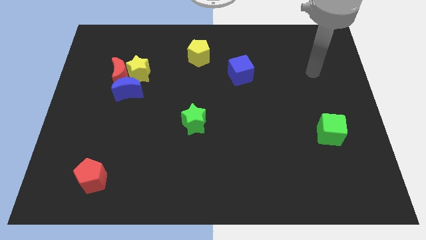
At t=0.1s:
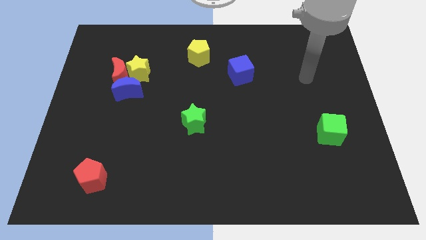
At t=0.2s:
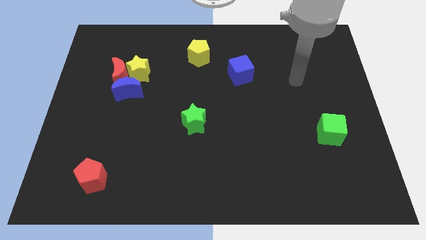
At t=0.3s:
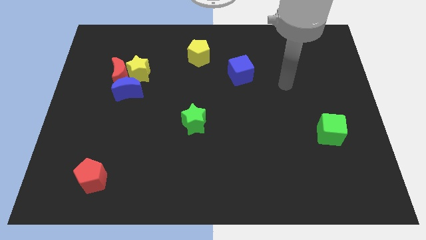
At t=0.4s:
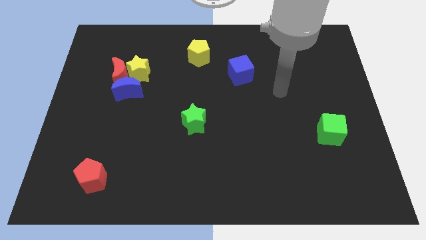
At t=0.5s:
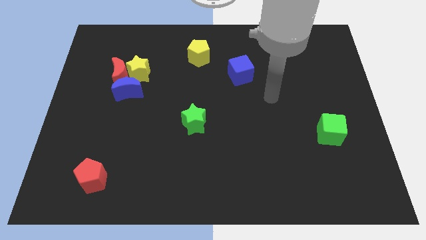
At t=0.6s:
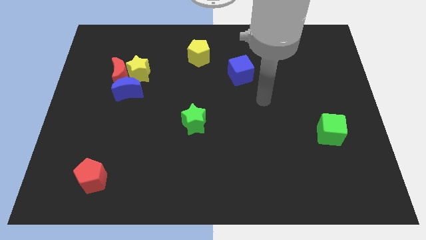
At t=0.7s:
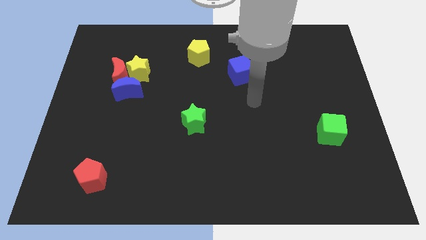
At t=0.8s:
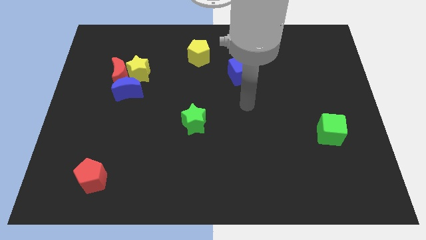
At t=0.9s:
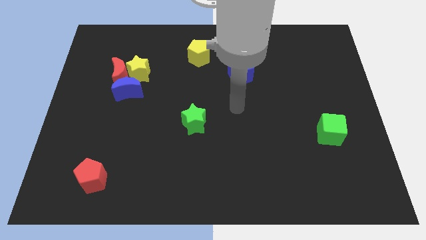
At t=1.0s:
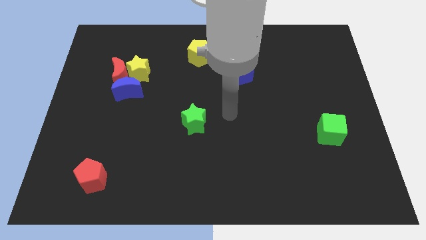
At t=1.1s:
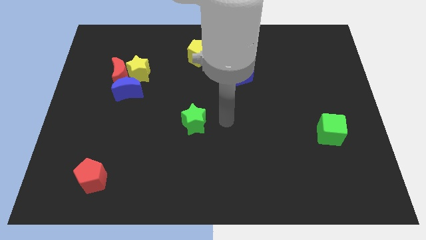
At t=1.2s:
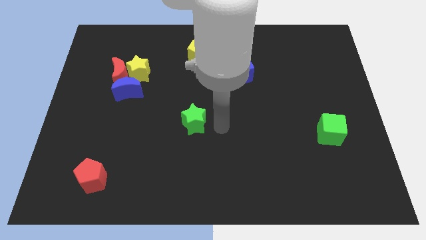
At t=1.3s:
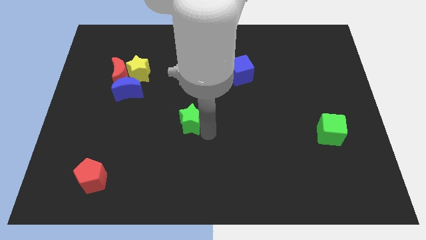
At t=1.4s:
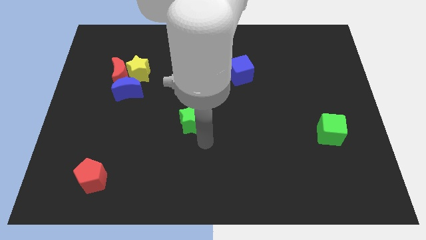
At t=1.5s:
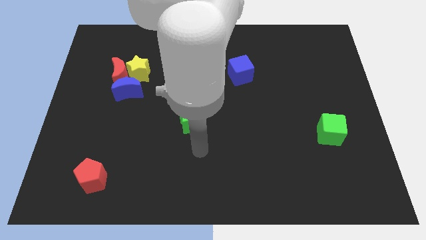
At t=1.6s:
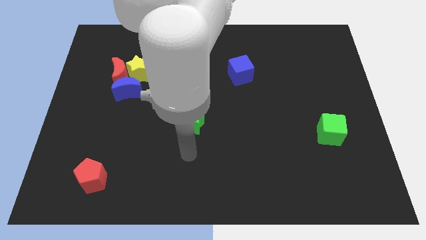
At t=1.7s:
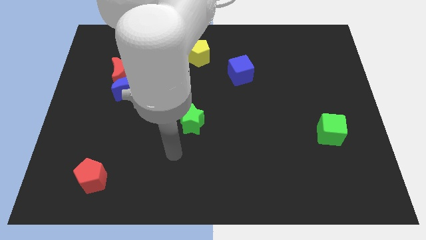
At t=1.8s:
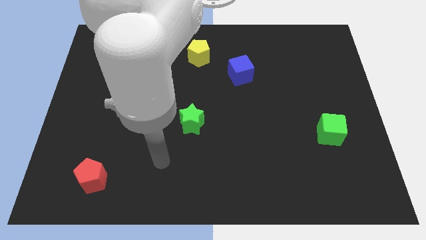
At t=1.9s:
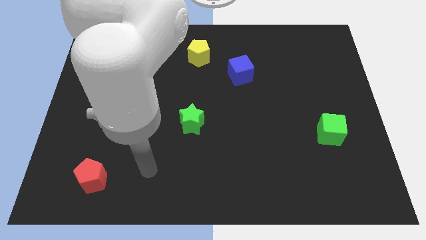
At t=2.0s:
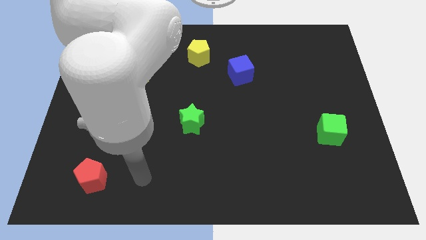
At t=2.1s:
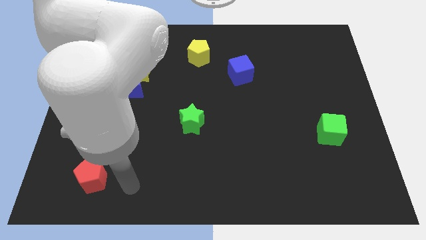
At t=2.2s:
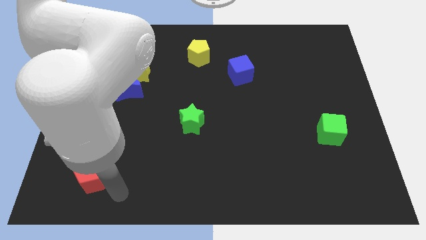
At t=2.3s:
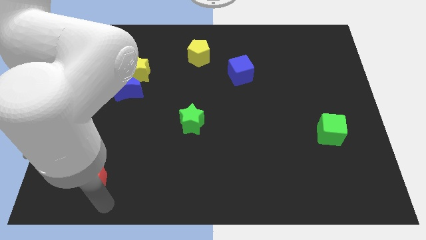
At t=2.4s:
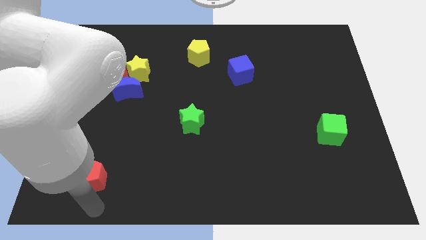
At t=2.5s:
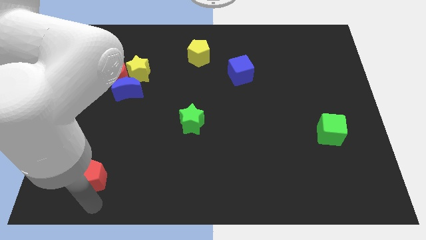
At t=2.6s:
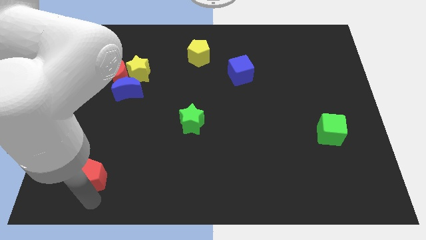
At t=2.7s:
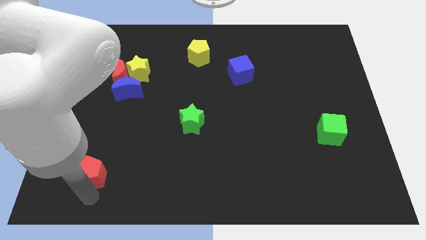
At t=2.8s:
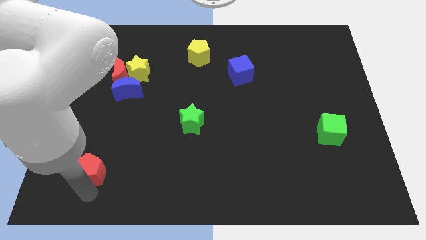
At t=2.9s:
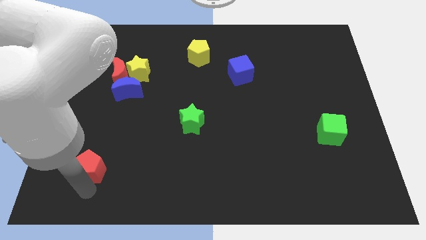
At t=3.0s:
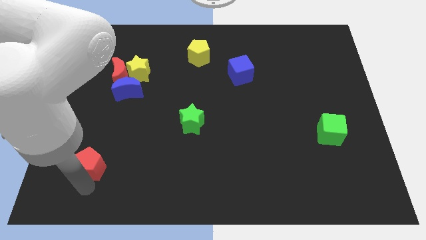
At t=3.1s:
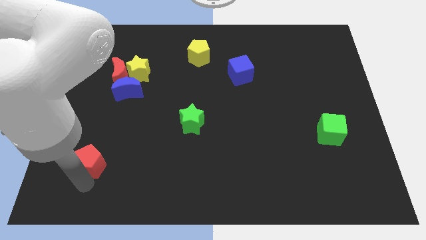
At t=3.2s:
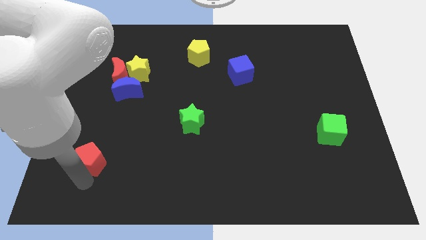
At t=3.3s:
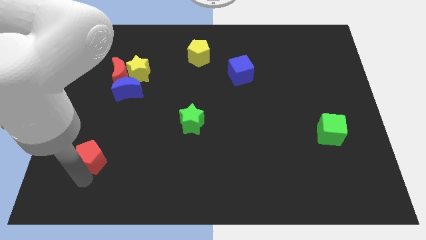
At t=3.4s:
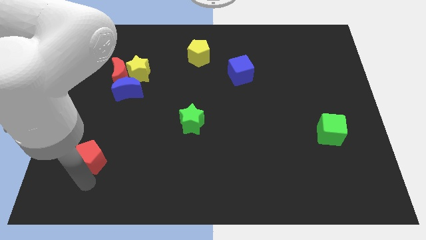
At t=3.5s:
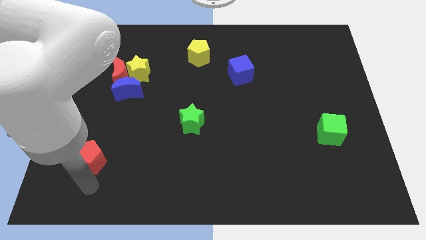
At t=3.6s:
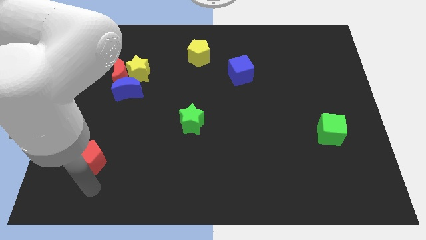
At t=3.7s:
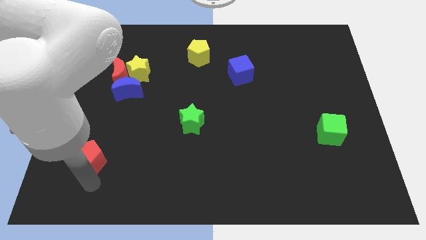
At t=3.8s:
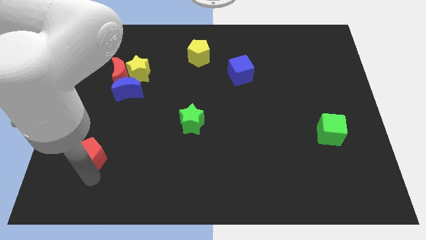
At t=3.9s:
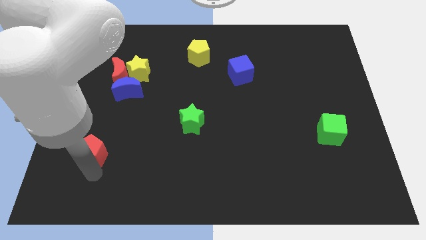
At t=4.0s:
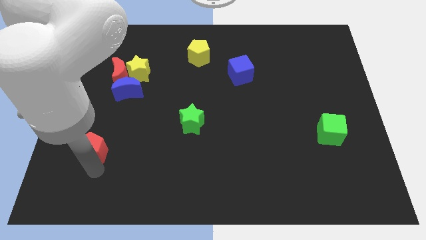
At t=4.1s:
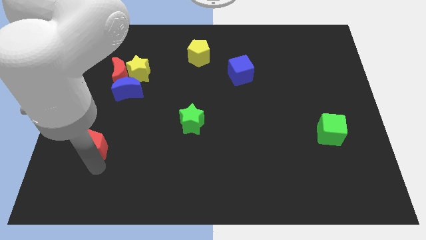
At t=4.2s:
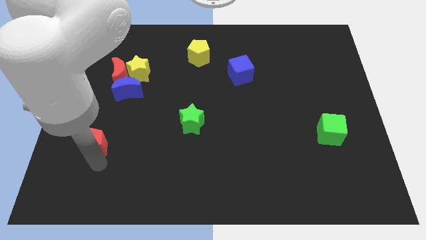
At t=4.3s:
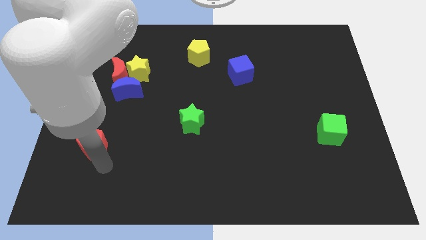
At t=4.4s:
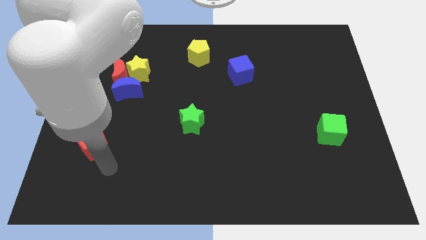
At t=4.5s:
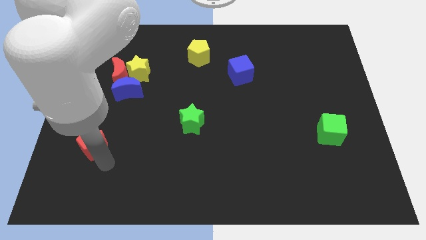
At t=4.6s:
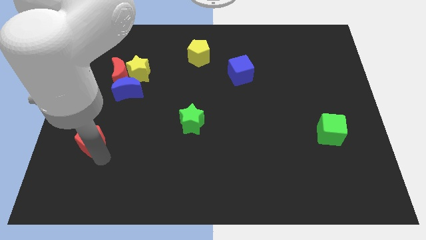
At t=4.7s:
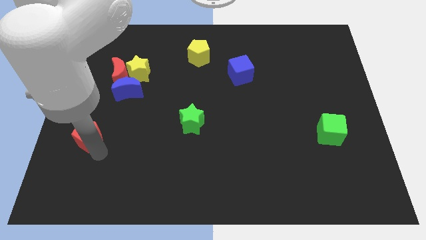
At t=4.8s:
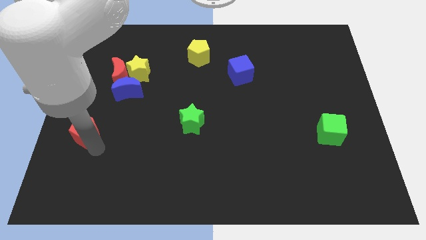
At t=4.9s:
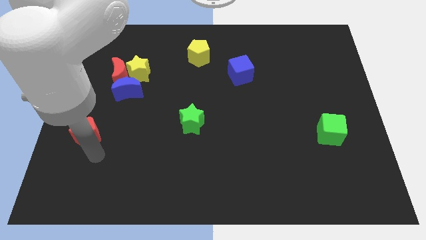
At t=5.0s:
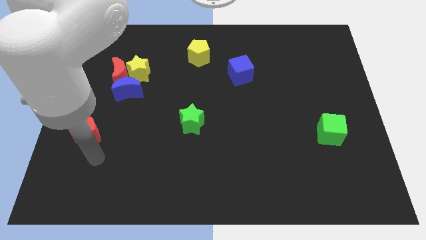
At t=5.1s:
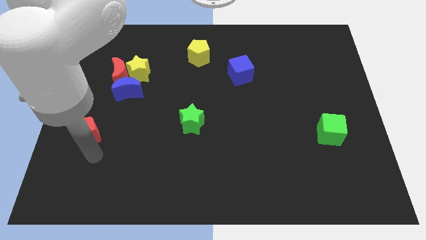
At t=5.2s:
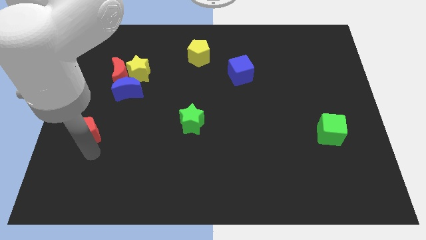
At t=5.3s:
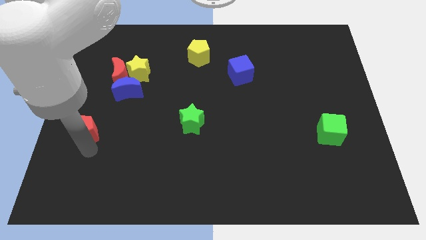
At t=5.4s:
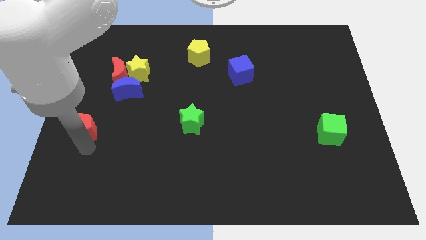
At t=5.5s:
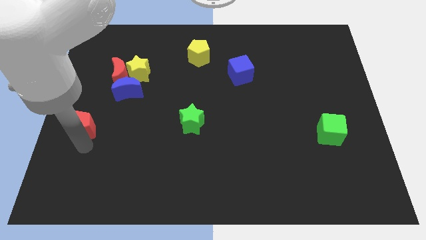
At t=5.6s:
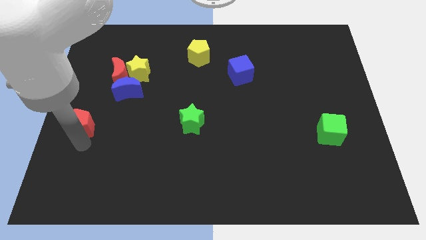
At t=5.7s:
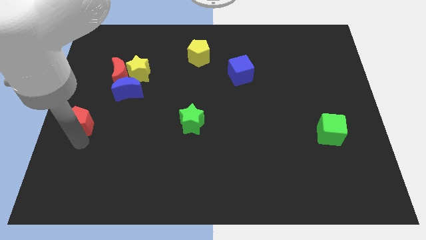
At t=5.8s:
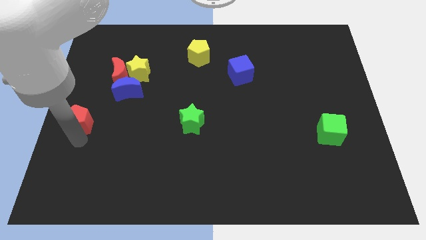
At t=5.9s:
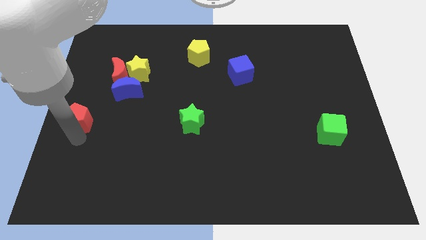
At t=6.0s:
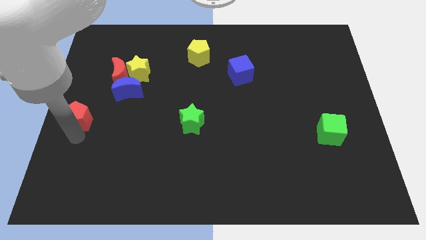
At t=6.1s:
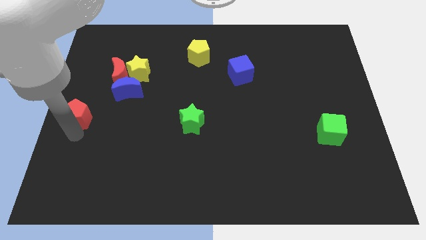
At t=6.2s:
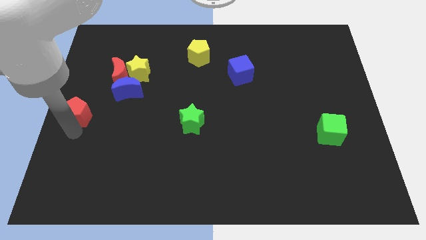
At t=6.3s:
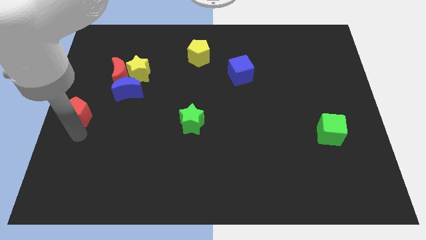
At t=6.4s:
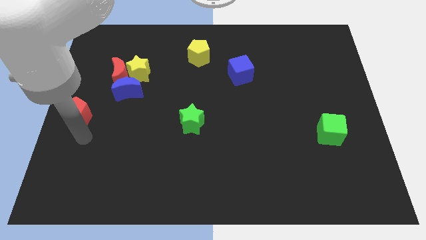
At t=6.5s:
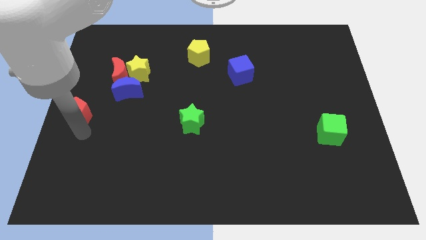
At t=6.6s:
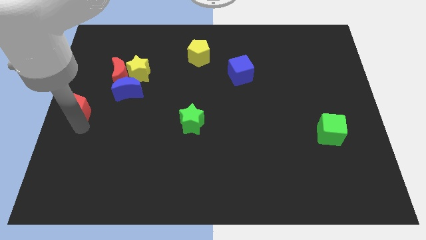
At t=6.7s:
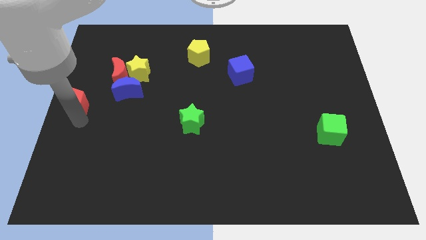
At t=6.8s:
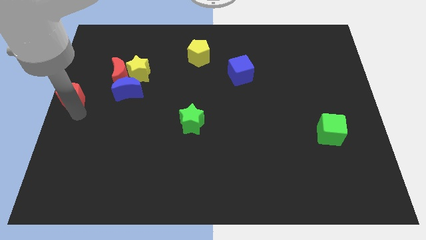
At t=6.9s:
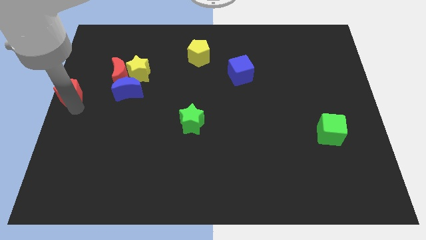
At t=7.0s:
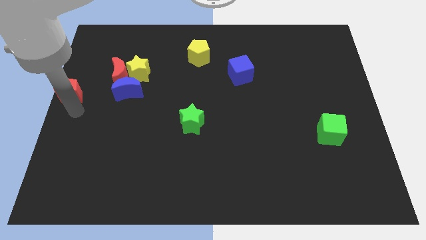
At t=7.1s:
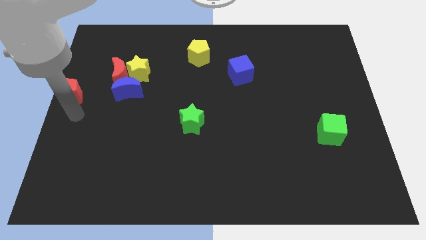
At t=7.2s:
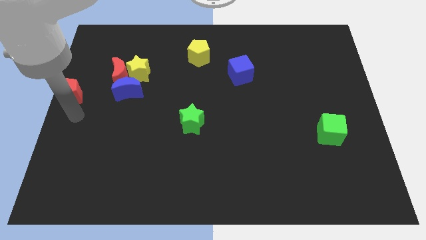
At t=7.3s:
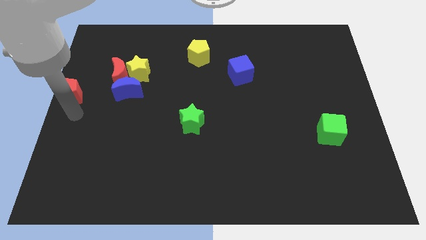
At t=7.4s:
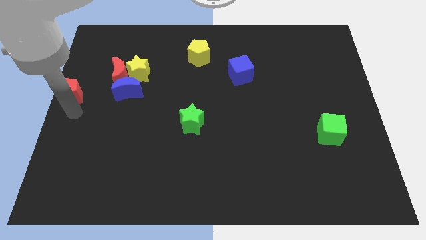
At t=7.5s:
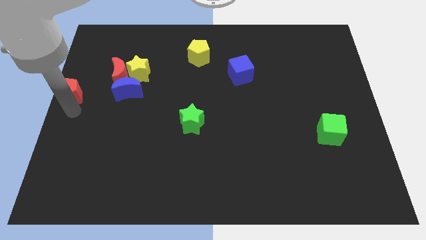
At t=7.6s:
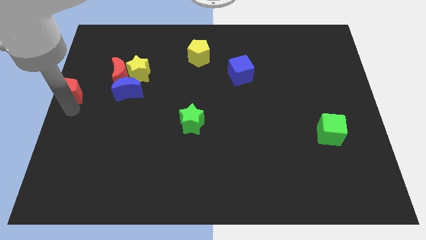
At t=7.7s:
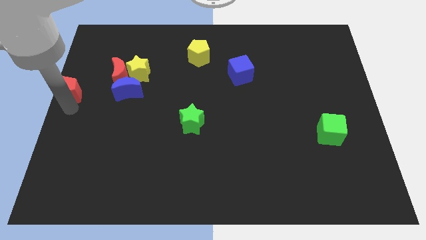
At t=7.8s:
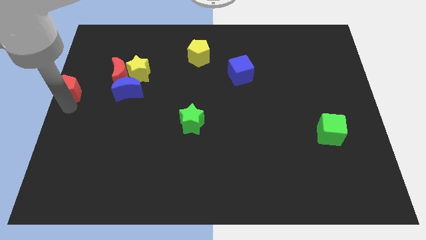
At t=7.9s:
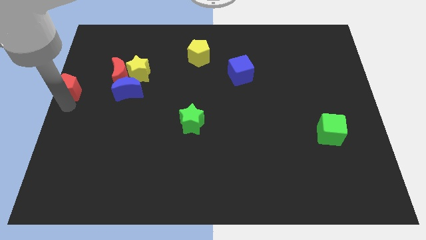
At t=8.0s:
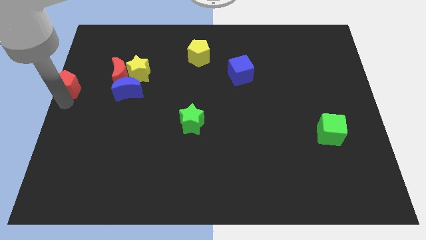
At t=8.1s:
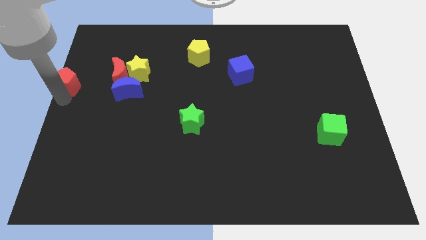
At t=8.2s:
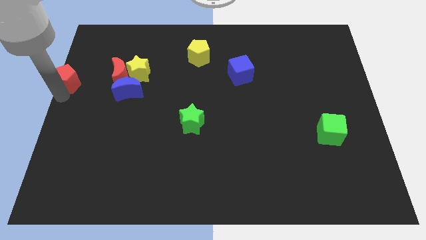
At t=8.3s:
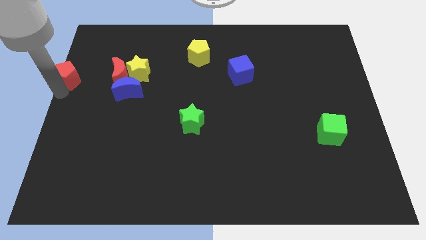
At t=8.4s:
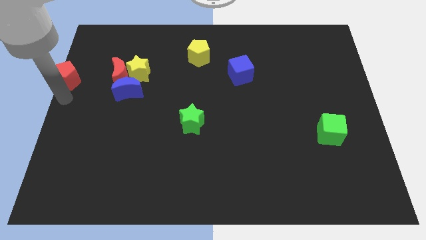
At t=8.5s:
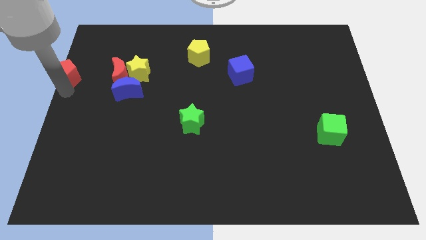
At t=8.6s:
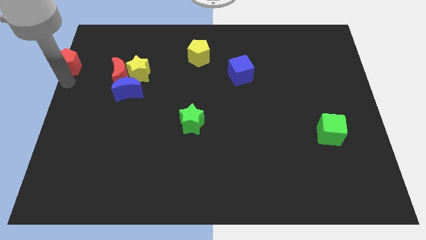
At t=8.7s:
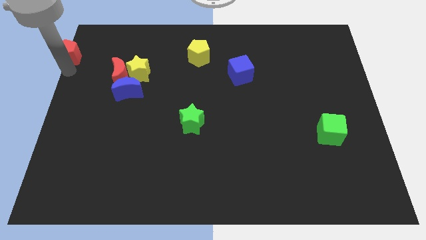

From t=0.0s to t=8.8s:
move the red pentagon to the upper left corner
